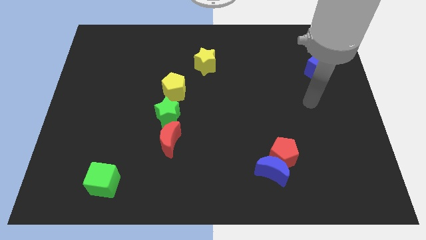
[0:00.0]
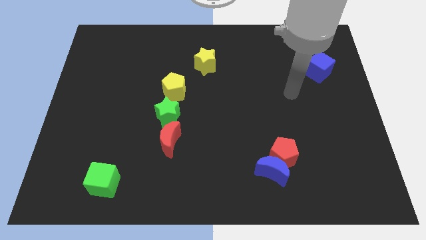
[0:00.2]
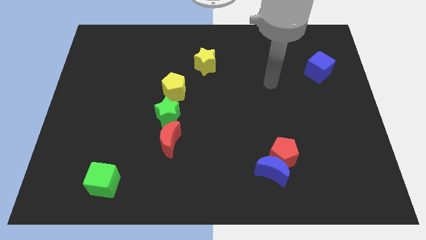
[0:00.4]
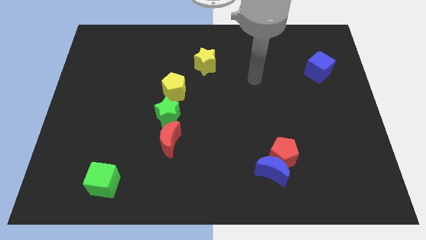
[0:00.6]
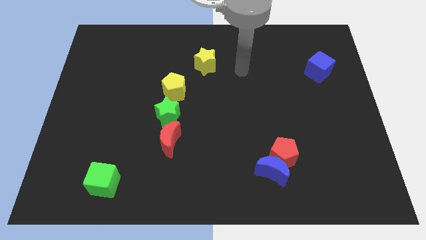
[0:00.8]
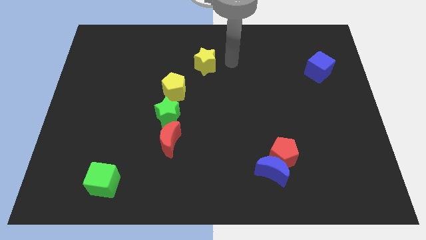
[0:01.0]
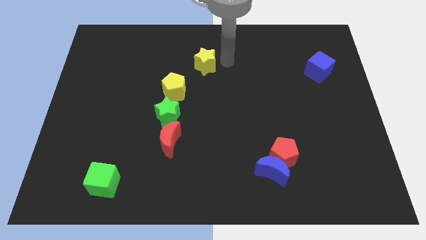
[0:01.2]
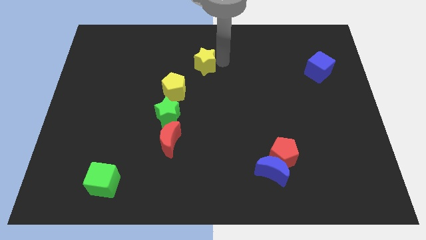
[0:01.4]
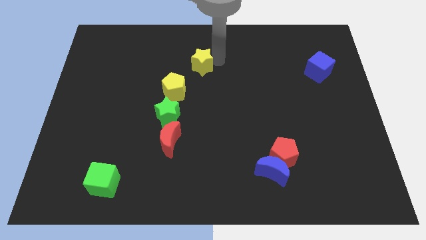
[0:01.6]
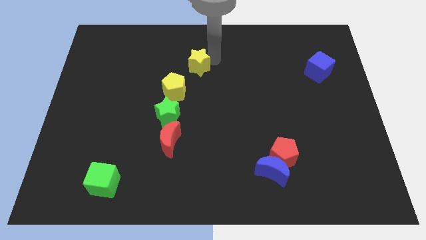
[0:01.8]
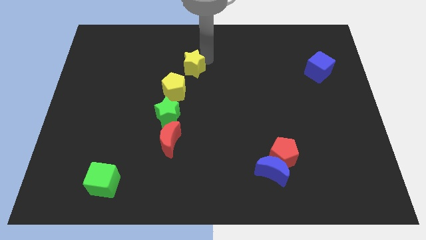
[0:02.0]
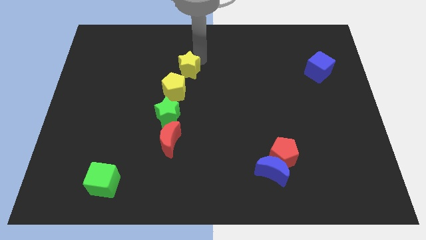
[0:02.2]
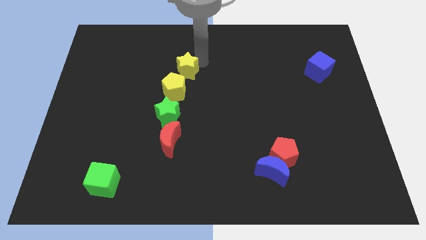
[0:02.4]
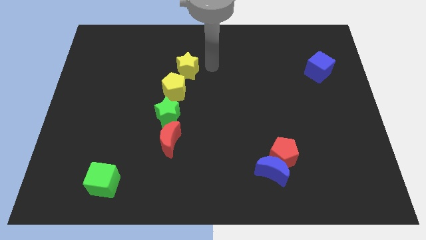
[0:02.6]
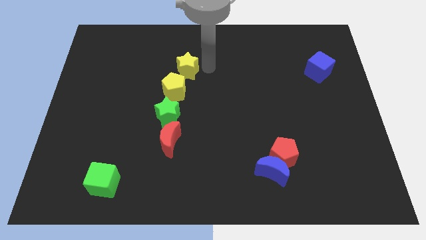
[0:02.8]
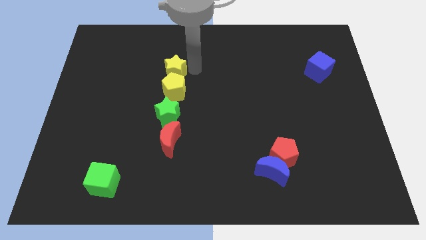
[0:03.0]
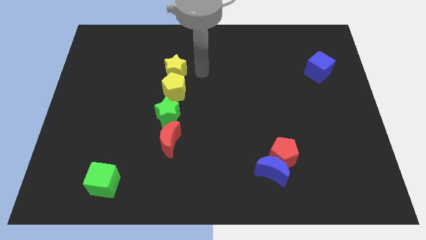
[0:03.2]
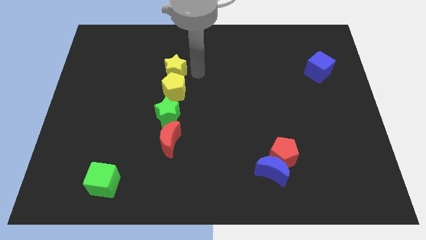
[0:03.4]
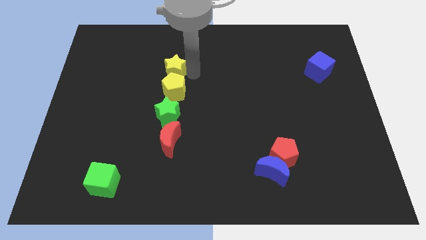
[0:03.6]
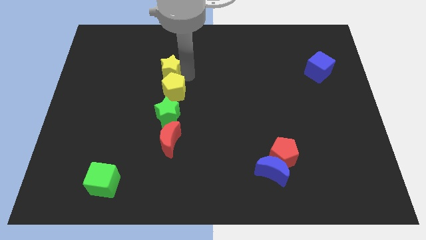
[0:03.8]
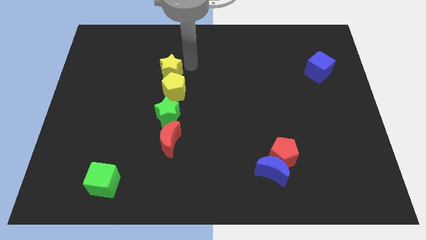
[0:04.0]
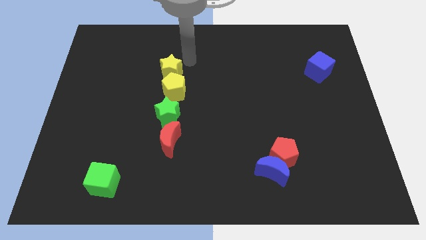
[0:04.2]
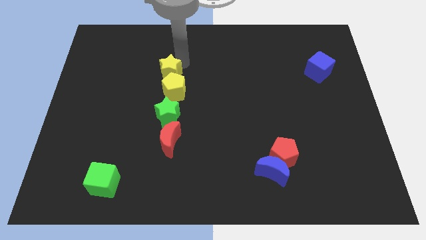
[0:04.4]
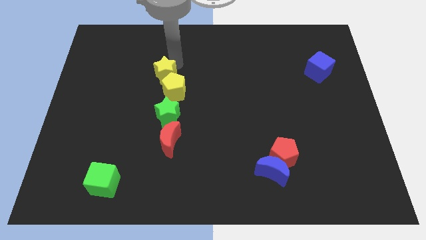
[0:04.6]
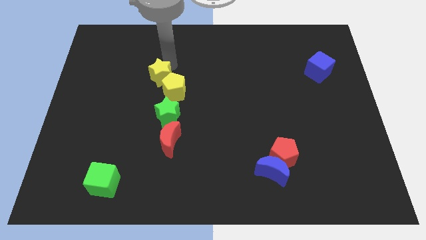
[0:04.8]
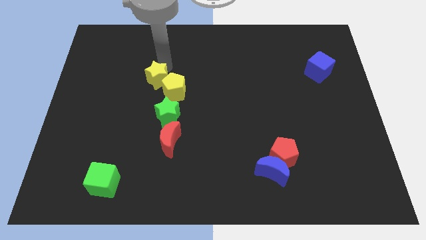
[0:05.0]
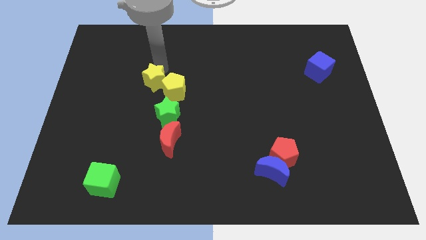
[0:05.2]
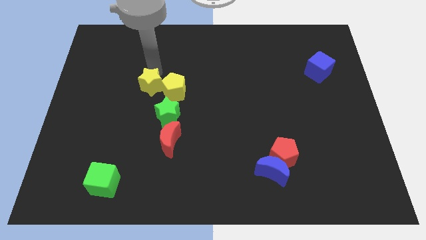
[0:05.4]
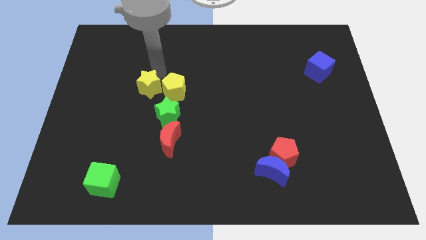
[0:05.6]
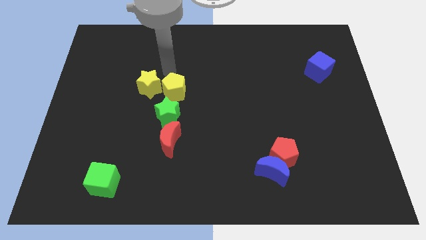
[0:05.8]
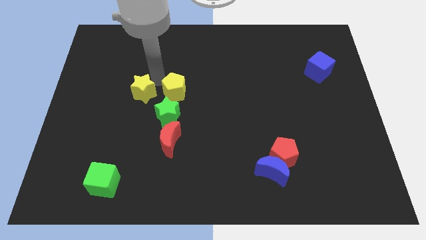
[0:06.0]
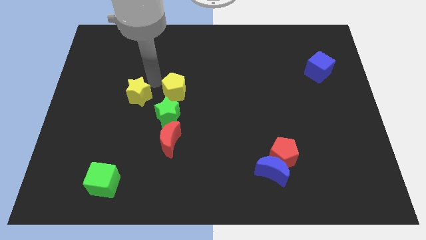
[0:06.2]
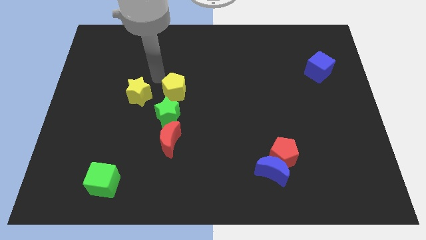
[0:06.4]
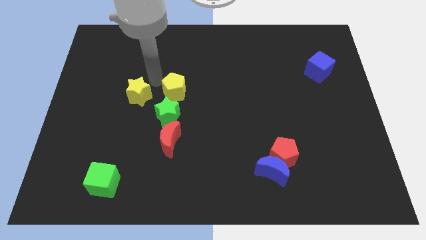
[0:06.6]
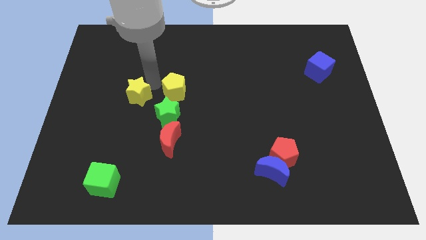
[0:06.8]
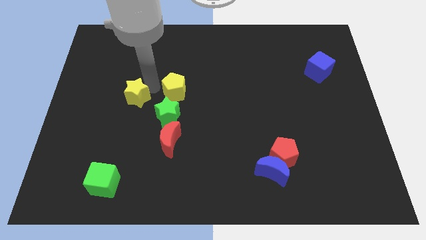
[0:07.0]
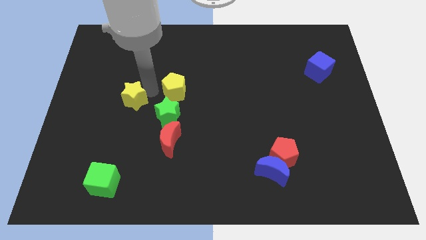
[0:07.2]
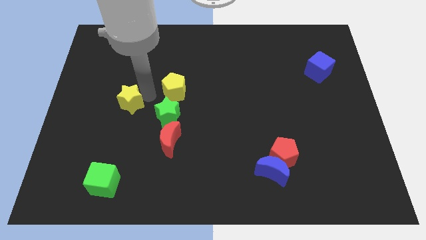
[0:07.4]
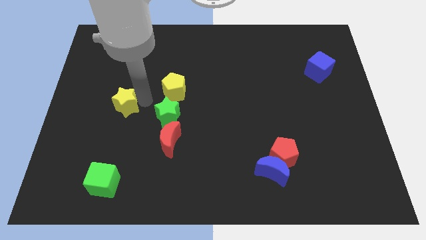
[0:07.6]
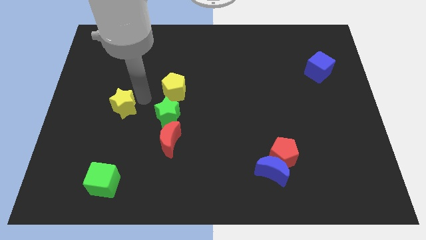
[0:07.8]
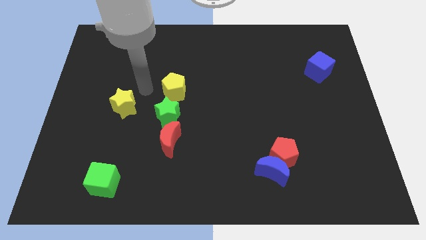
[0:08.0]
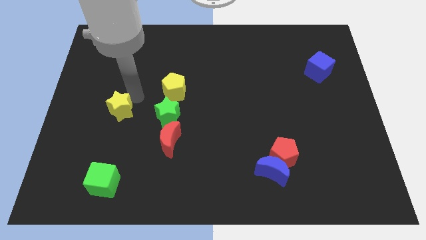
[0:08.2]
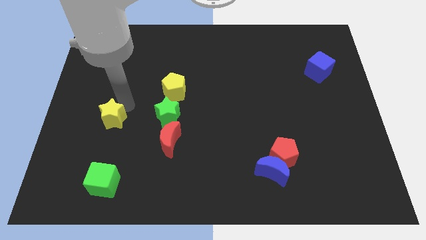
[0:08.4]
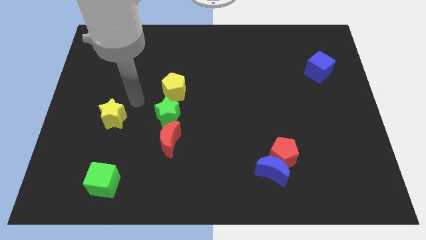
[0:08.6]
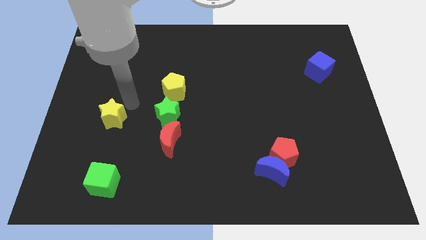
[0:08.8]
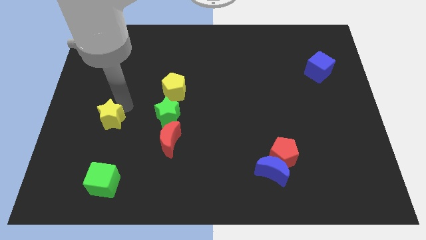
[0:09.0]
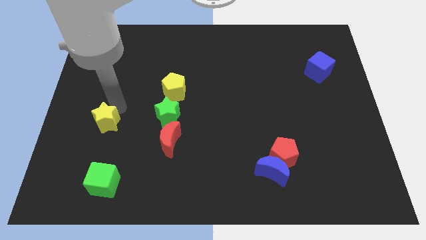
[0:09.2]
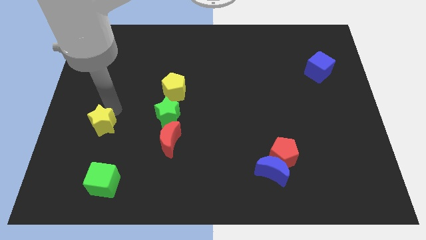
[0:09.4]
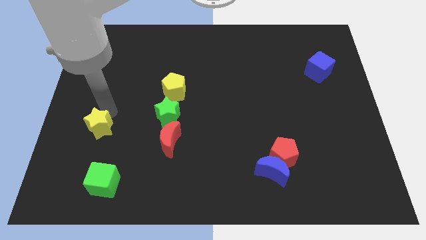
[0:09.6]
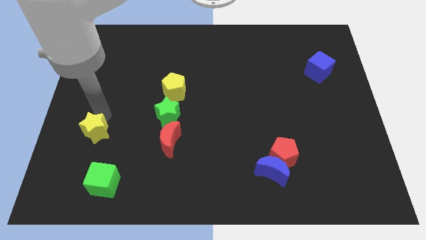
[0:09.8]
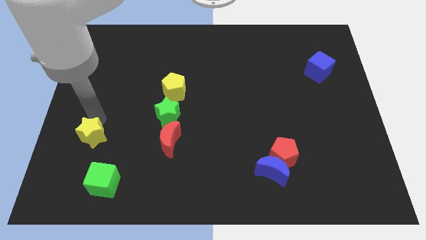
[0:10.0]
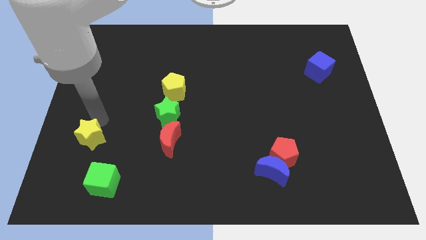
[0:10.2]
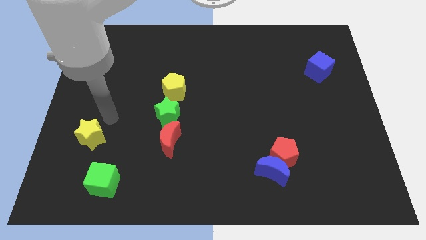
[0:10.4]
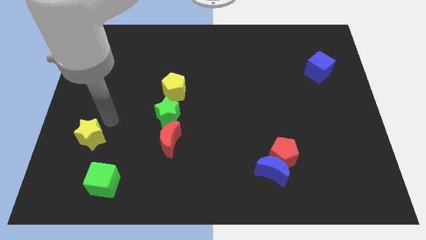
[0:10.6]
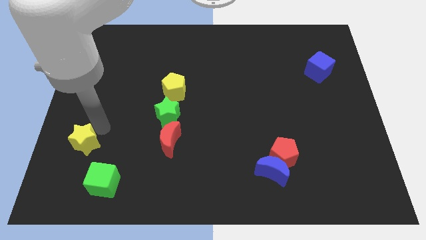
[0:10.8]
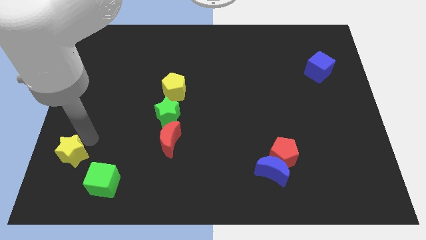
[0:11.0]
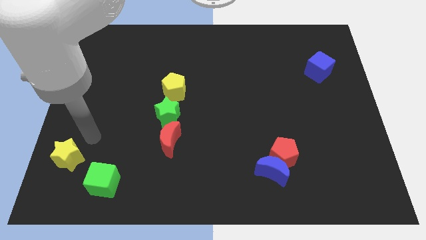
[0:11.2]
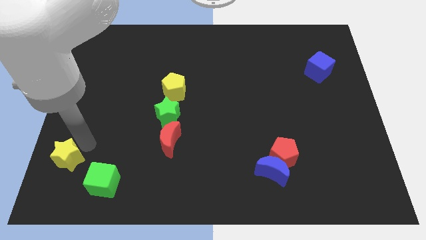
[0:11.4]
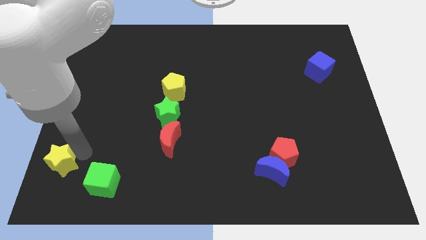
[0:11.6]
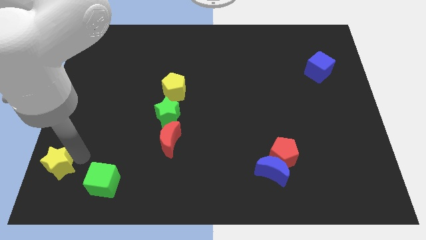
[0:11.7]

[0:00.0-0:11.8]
push the yellow star to the lower left corner
